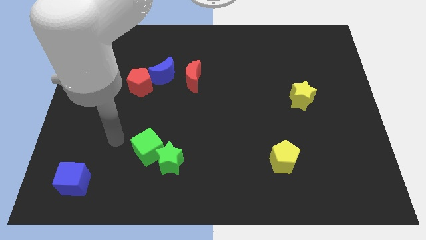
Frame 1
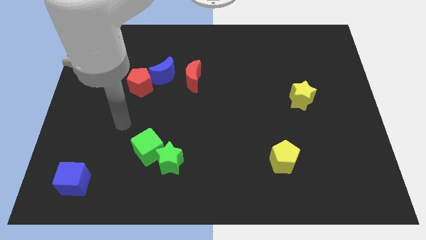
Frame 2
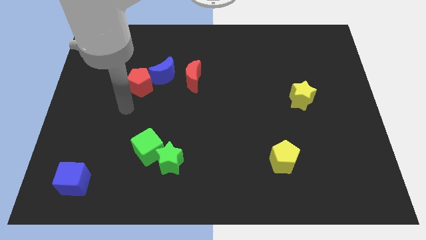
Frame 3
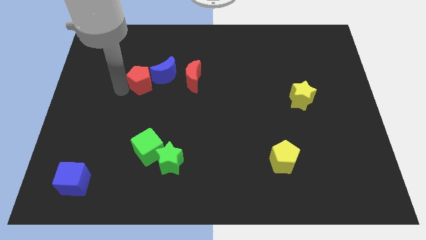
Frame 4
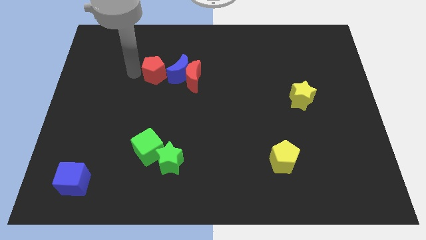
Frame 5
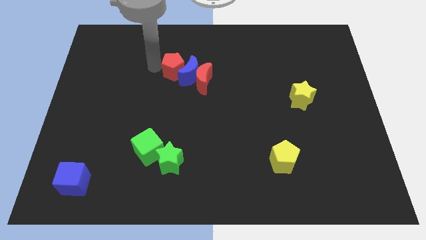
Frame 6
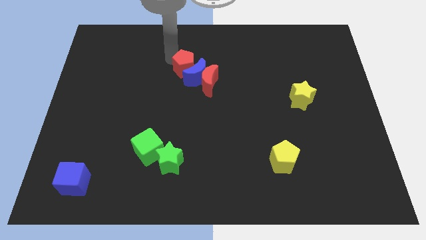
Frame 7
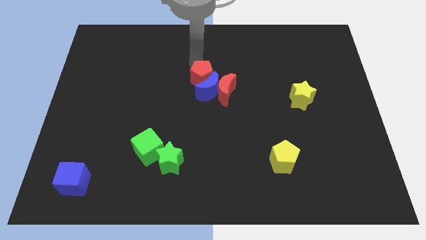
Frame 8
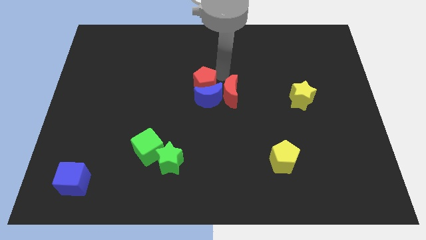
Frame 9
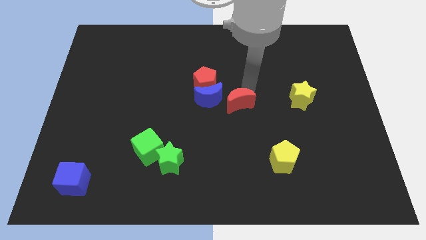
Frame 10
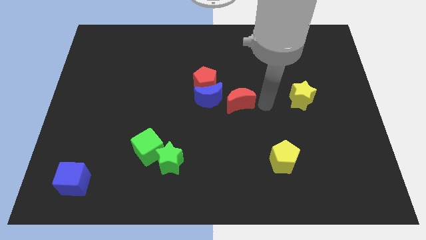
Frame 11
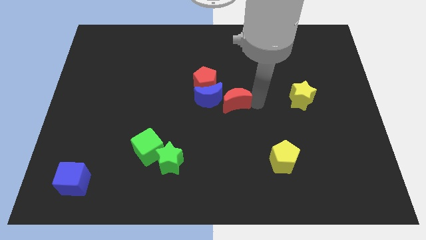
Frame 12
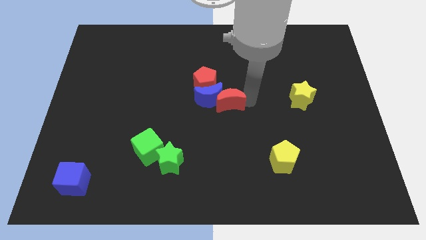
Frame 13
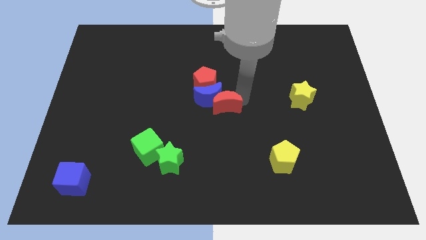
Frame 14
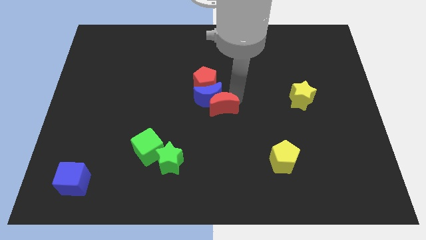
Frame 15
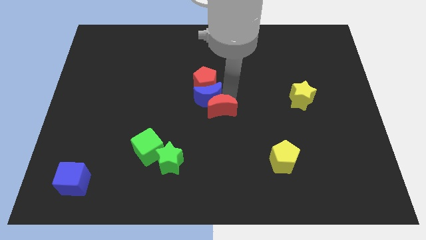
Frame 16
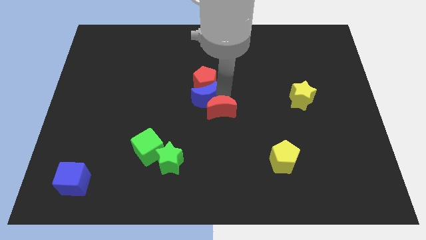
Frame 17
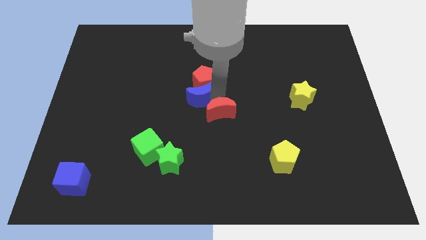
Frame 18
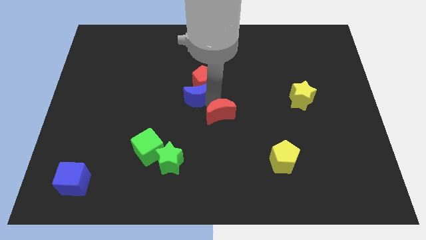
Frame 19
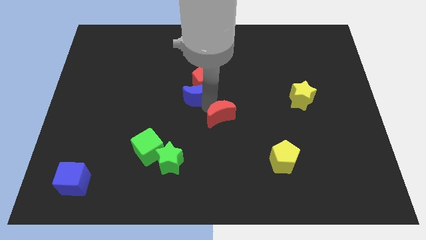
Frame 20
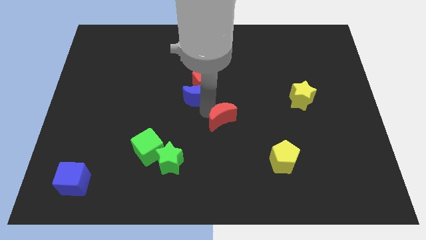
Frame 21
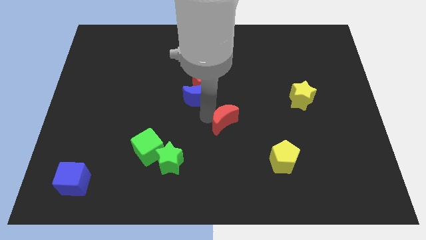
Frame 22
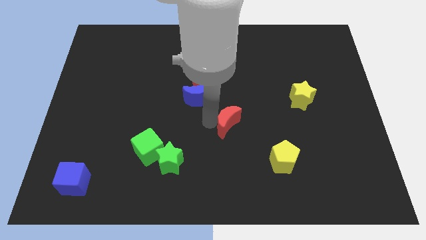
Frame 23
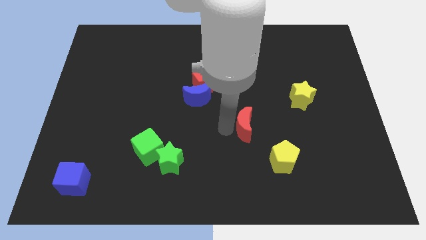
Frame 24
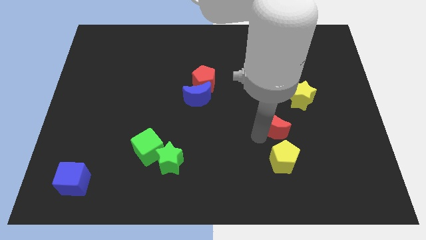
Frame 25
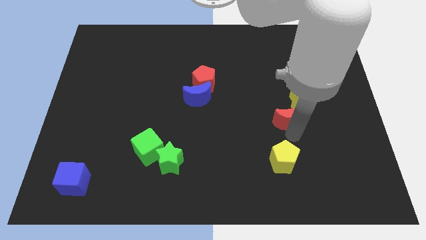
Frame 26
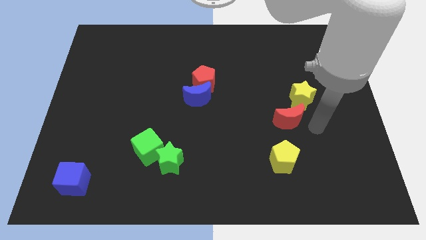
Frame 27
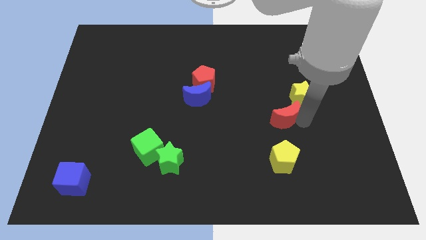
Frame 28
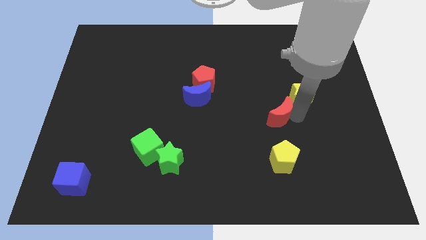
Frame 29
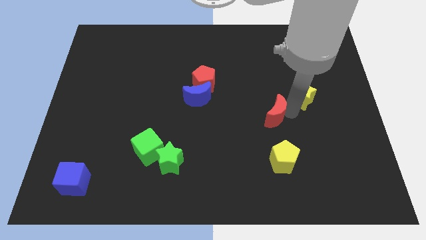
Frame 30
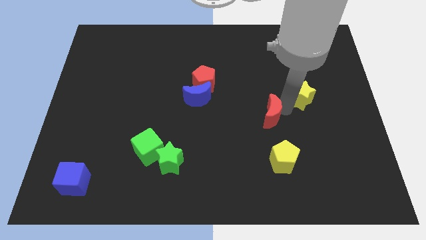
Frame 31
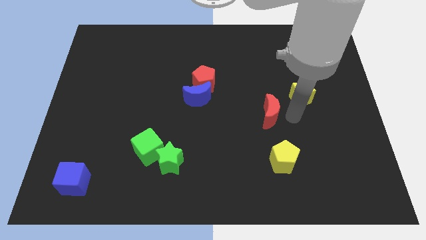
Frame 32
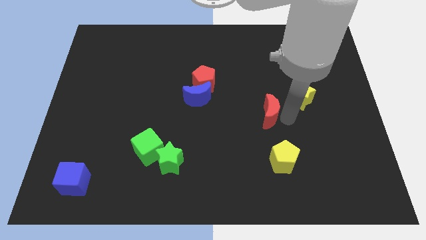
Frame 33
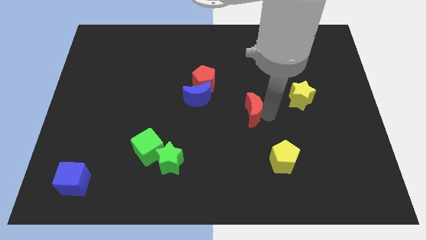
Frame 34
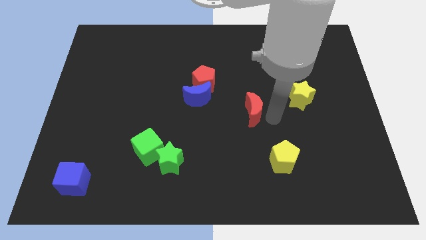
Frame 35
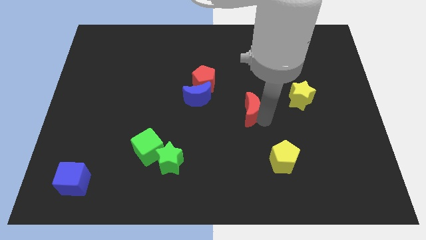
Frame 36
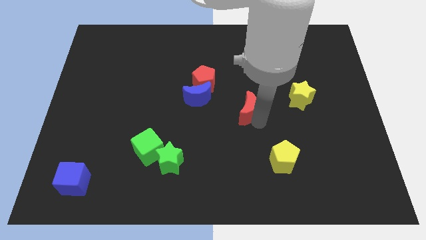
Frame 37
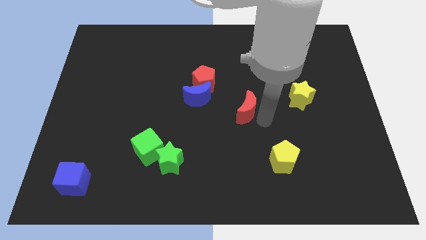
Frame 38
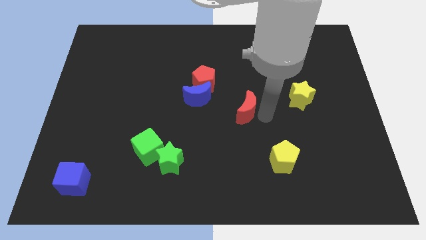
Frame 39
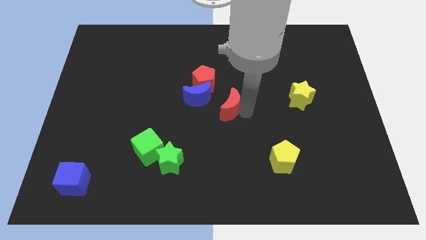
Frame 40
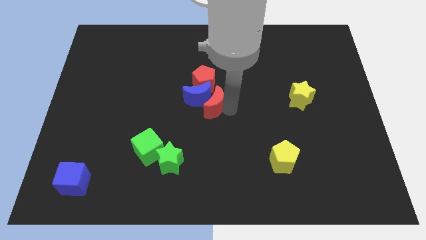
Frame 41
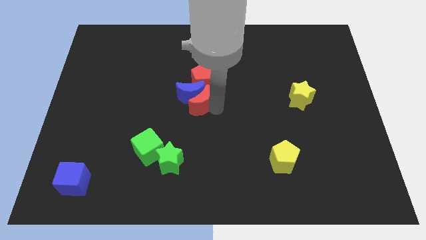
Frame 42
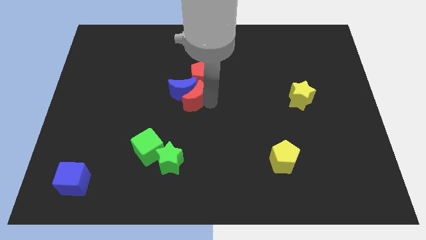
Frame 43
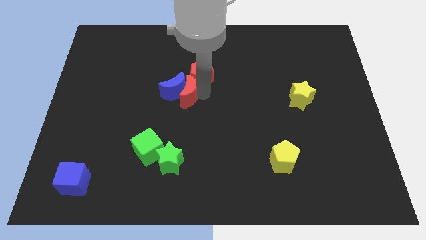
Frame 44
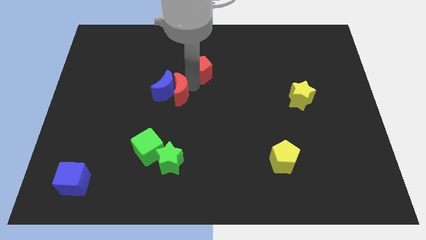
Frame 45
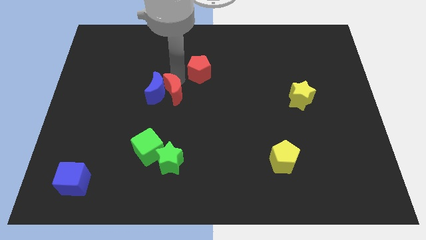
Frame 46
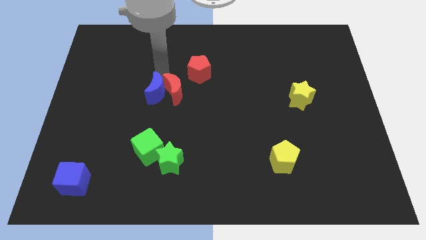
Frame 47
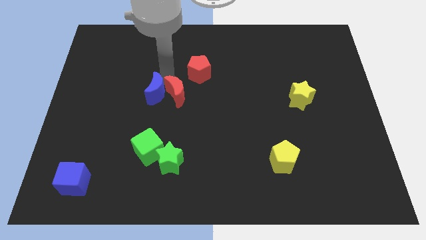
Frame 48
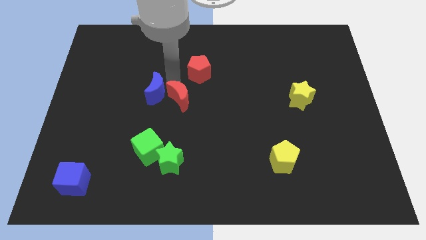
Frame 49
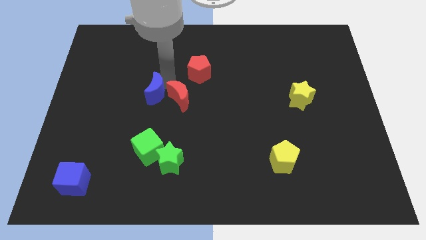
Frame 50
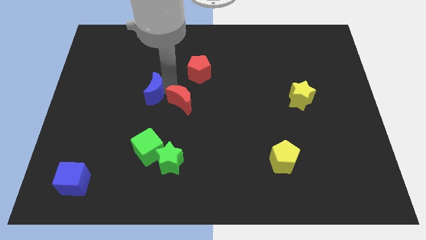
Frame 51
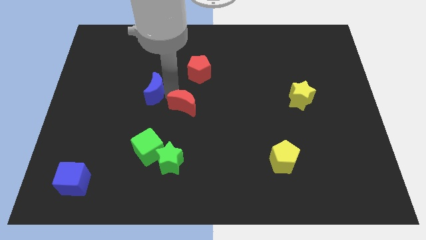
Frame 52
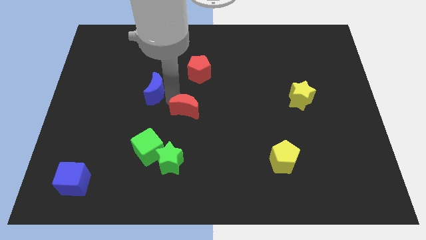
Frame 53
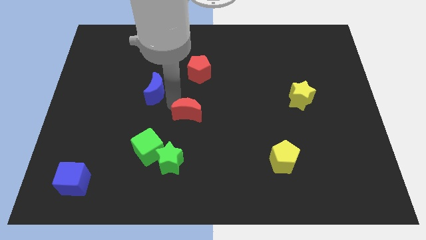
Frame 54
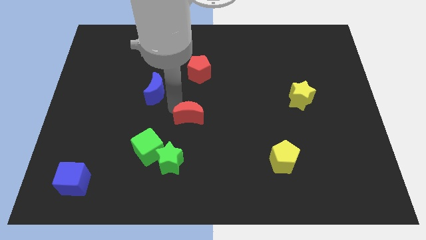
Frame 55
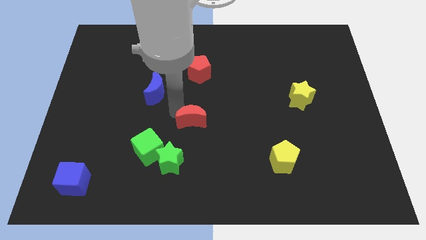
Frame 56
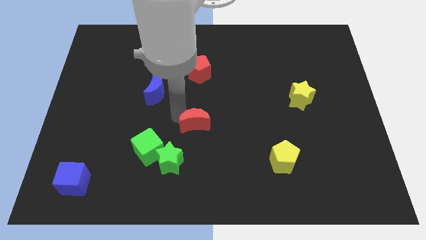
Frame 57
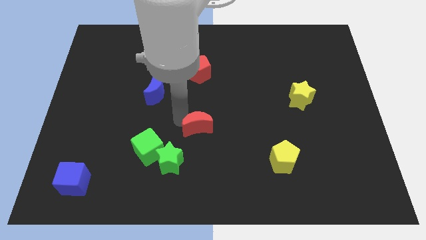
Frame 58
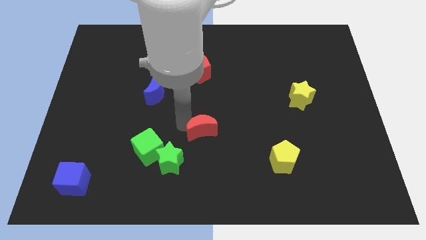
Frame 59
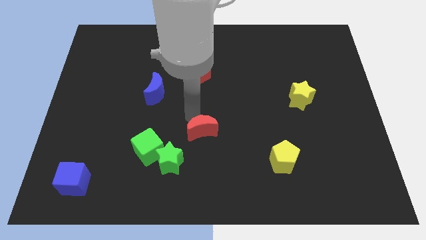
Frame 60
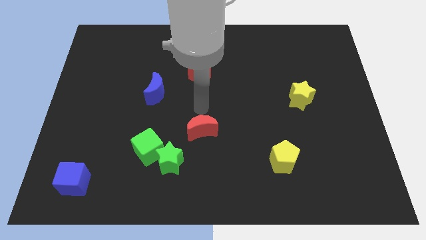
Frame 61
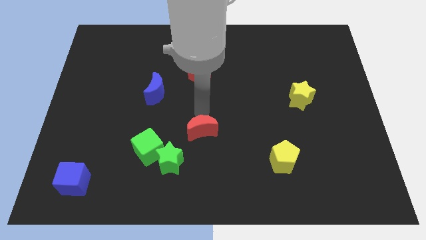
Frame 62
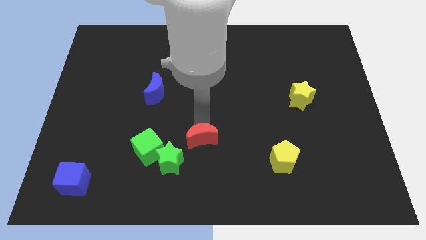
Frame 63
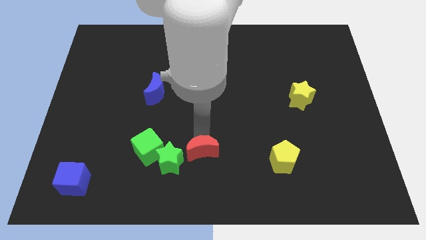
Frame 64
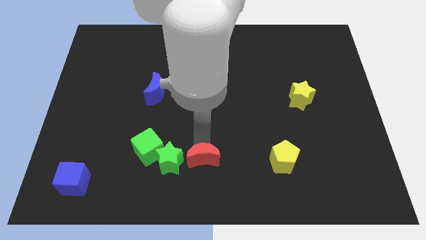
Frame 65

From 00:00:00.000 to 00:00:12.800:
push the red moon to the bottom side
